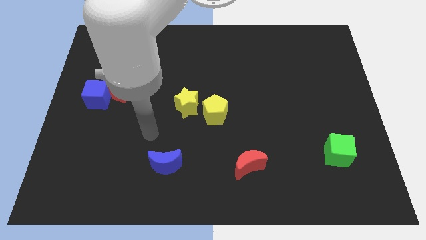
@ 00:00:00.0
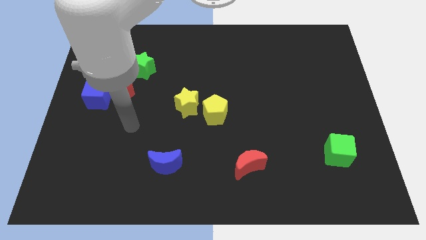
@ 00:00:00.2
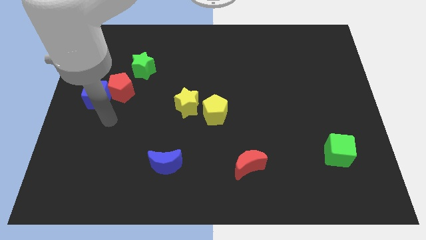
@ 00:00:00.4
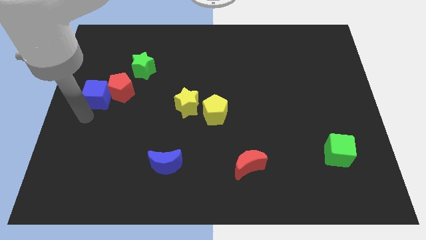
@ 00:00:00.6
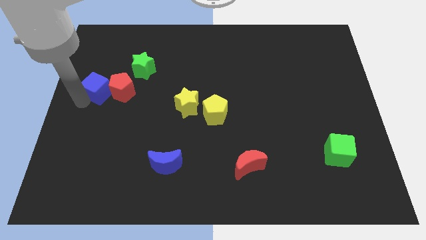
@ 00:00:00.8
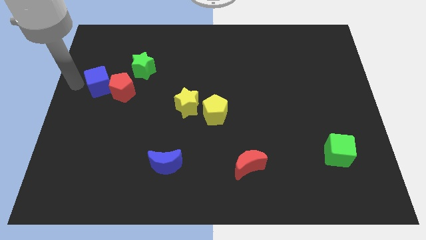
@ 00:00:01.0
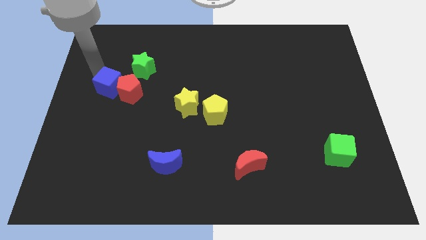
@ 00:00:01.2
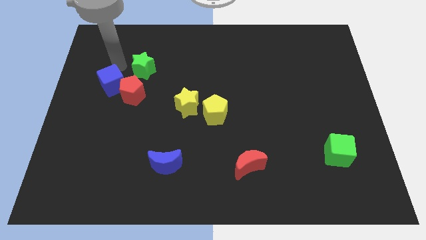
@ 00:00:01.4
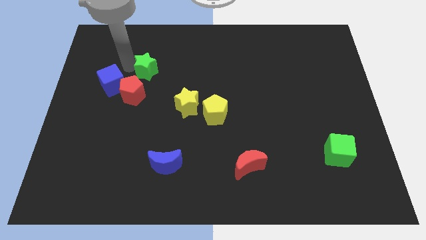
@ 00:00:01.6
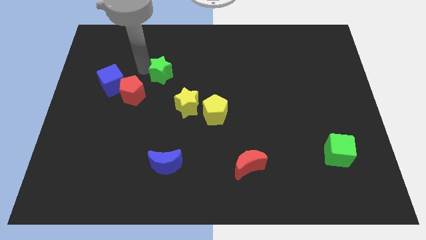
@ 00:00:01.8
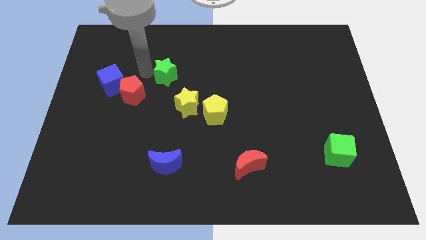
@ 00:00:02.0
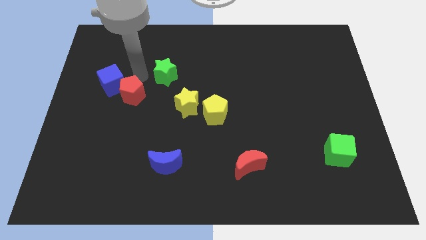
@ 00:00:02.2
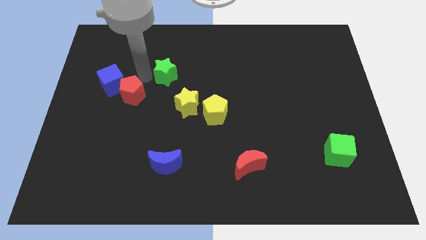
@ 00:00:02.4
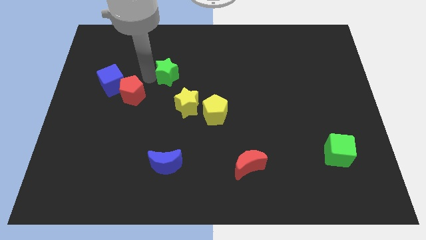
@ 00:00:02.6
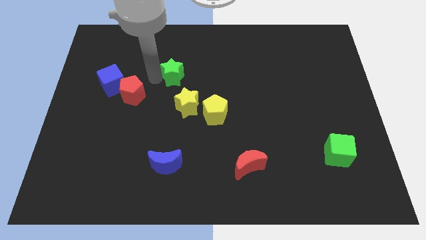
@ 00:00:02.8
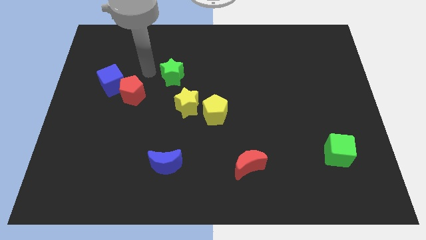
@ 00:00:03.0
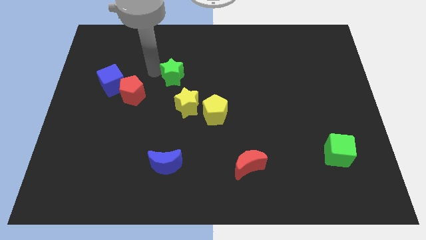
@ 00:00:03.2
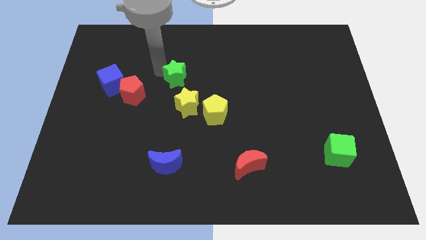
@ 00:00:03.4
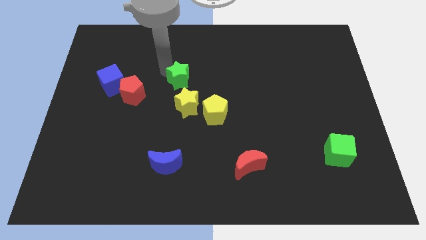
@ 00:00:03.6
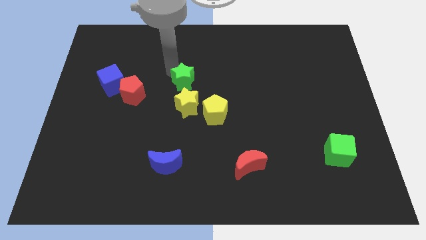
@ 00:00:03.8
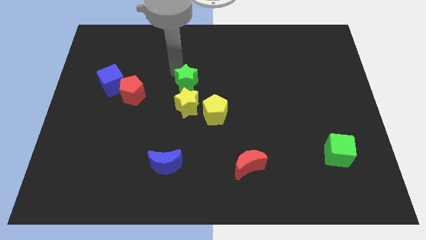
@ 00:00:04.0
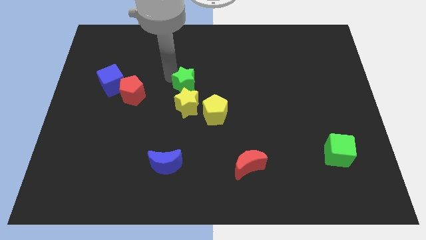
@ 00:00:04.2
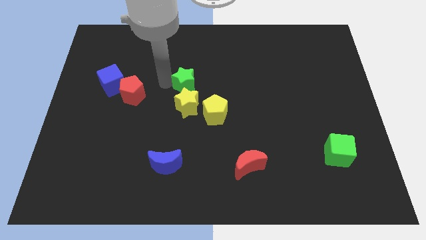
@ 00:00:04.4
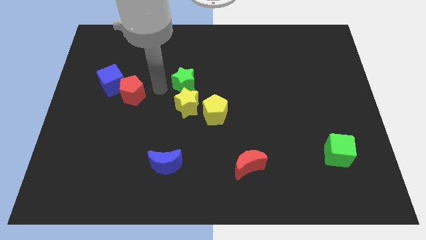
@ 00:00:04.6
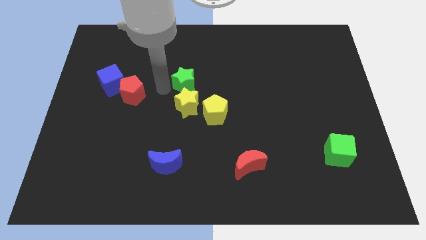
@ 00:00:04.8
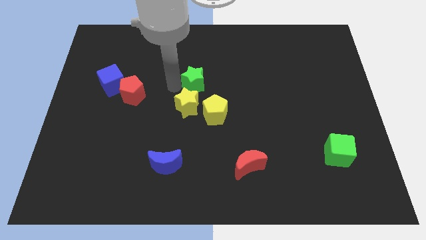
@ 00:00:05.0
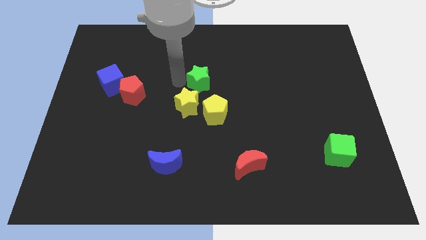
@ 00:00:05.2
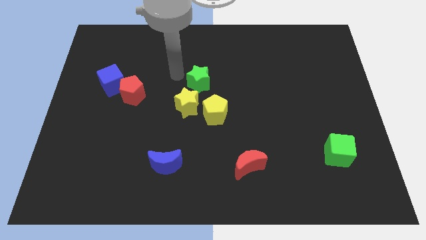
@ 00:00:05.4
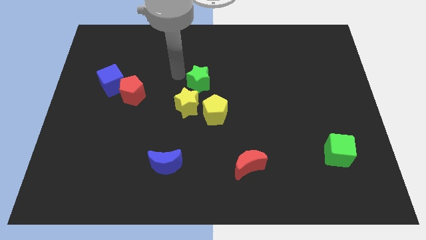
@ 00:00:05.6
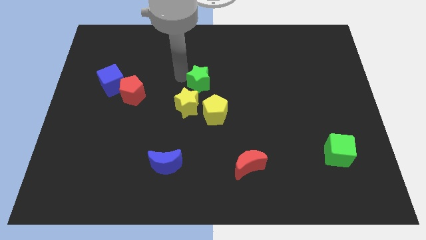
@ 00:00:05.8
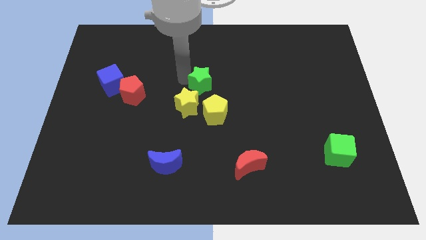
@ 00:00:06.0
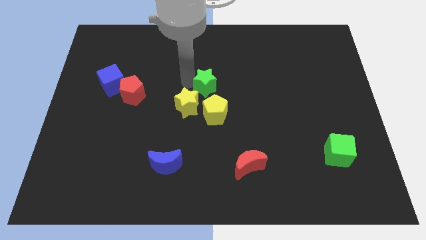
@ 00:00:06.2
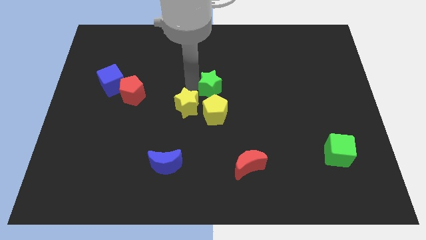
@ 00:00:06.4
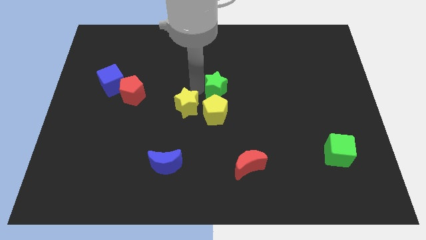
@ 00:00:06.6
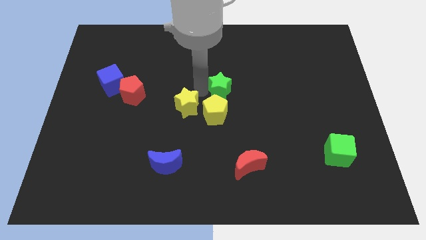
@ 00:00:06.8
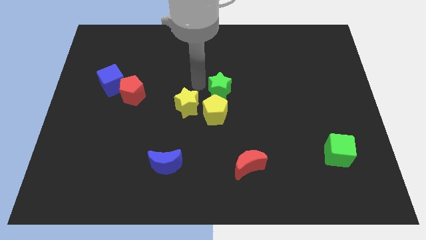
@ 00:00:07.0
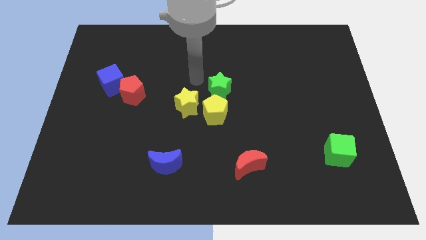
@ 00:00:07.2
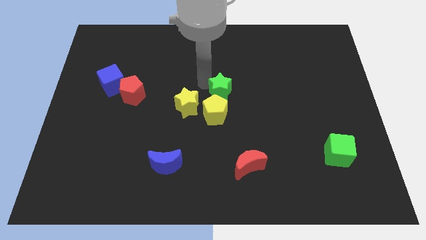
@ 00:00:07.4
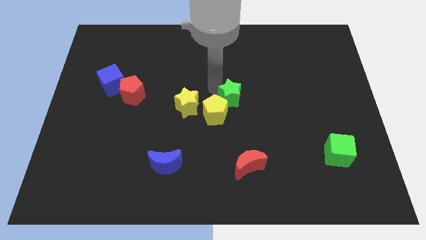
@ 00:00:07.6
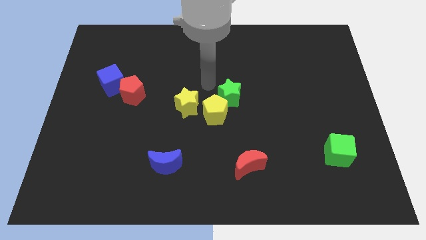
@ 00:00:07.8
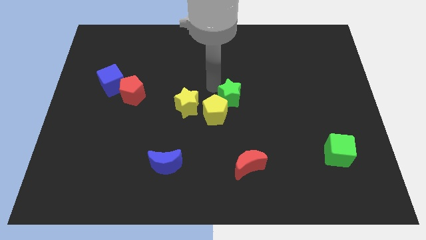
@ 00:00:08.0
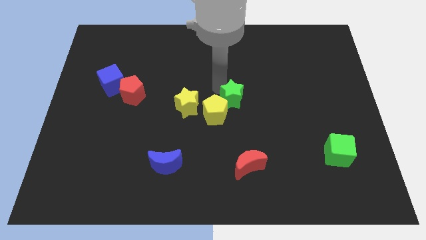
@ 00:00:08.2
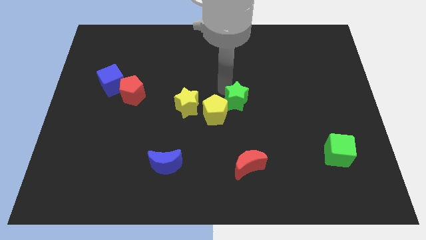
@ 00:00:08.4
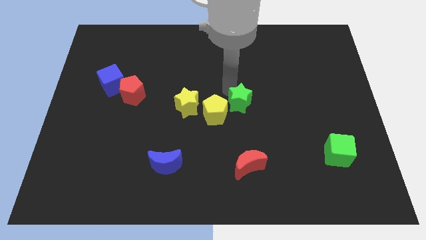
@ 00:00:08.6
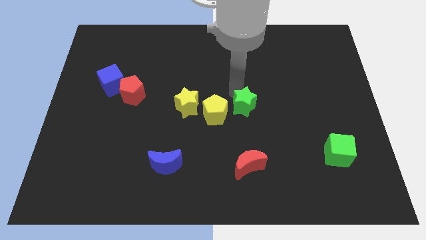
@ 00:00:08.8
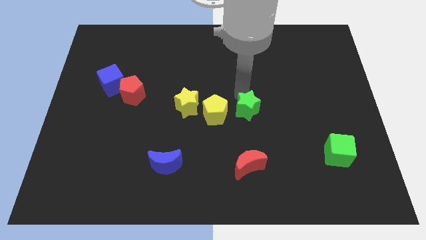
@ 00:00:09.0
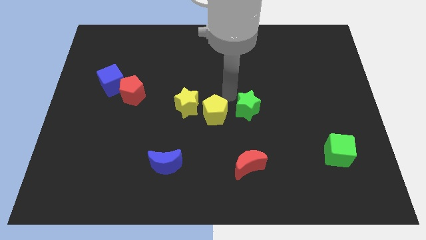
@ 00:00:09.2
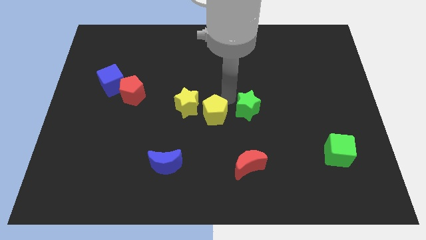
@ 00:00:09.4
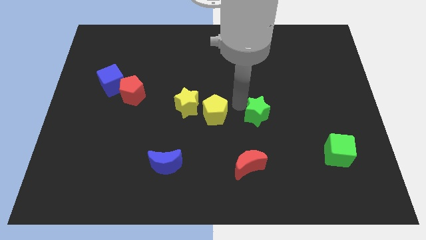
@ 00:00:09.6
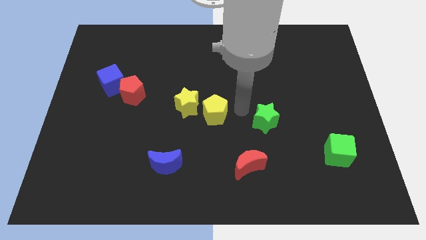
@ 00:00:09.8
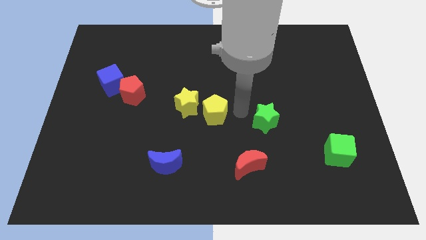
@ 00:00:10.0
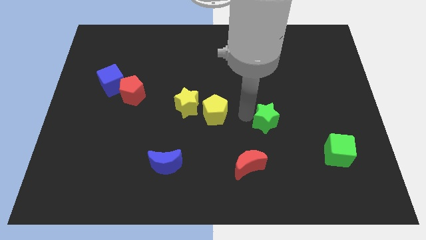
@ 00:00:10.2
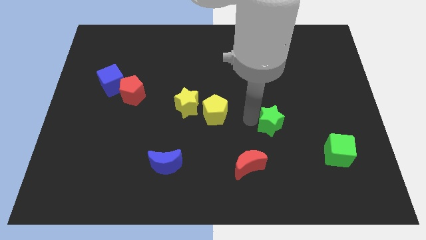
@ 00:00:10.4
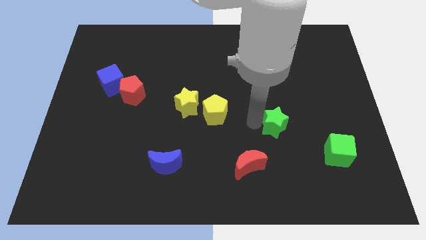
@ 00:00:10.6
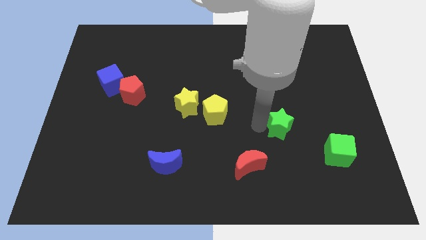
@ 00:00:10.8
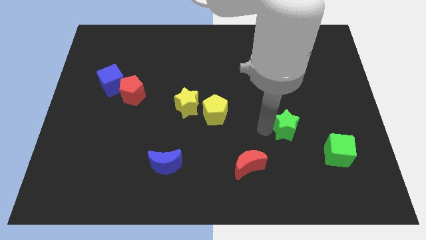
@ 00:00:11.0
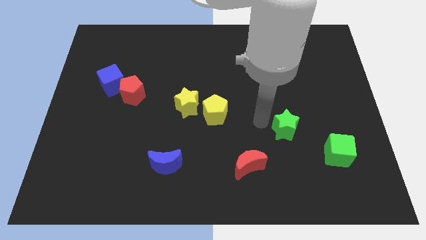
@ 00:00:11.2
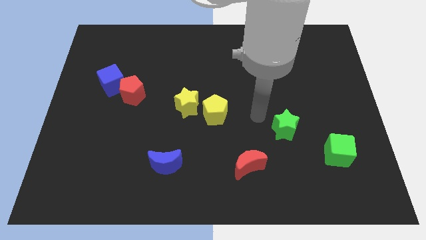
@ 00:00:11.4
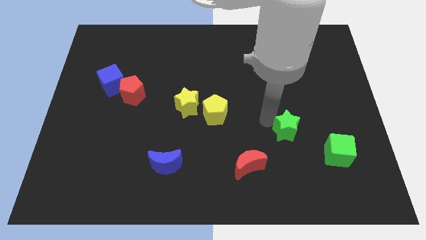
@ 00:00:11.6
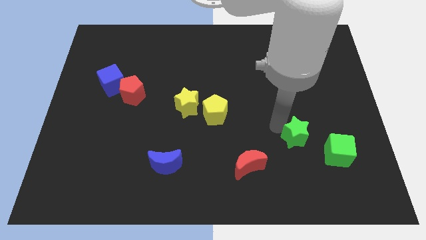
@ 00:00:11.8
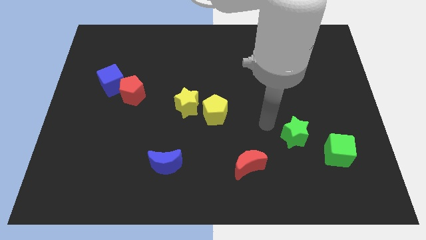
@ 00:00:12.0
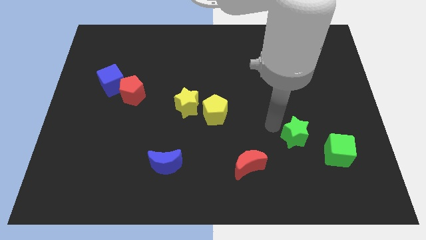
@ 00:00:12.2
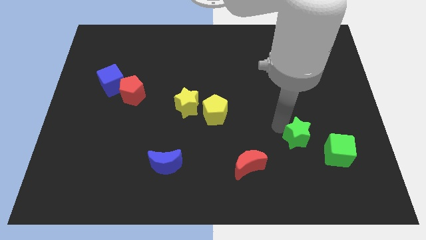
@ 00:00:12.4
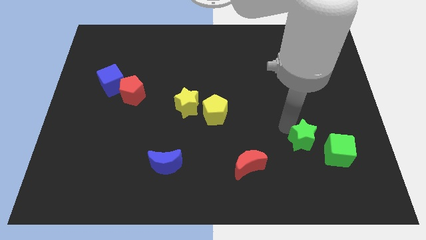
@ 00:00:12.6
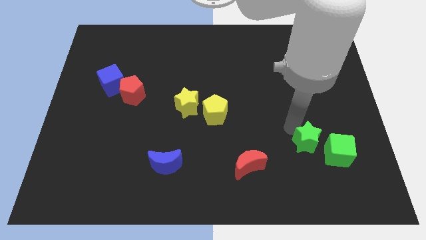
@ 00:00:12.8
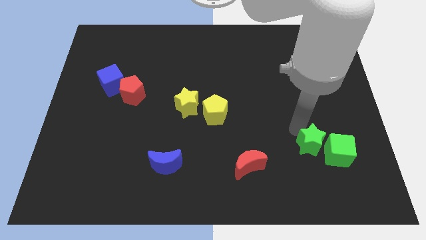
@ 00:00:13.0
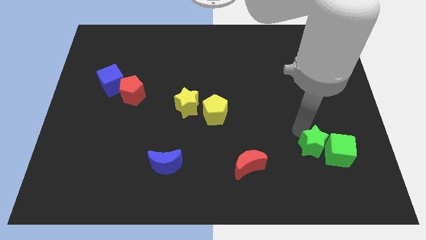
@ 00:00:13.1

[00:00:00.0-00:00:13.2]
push the green star close to the green cube
